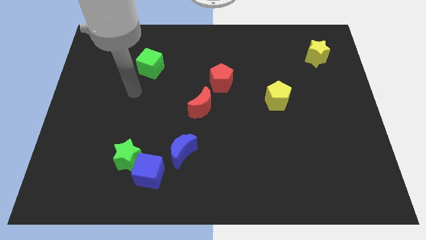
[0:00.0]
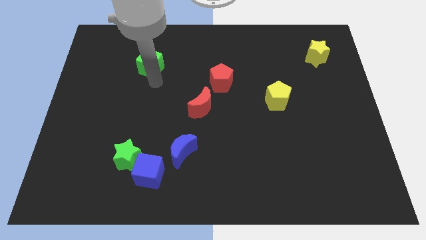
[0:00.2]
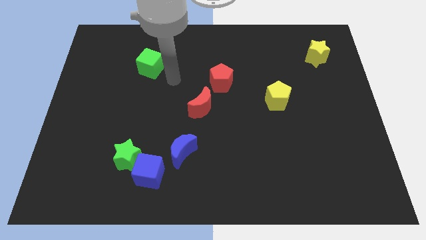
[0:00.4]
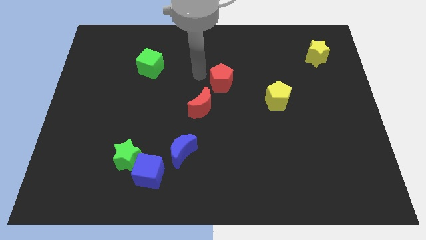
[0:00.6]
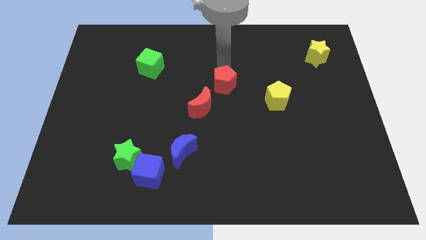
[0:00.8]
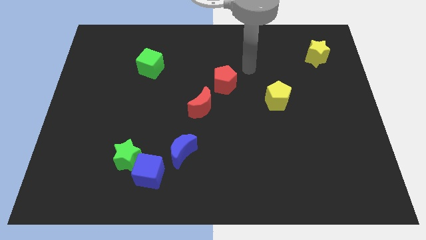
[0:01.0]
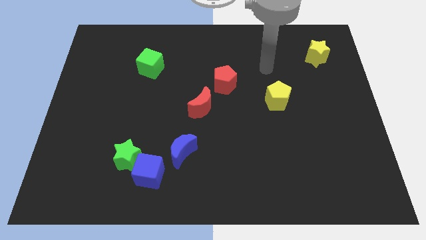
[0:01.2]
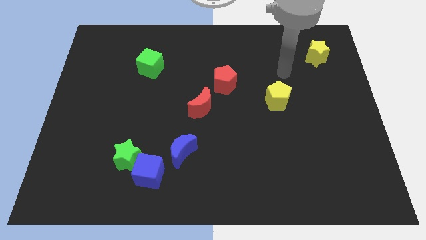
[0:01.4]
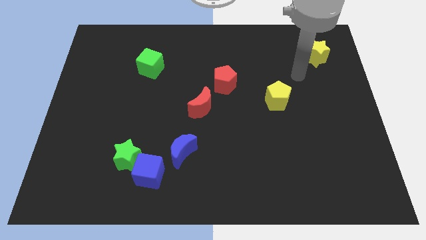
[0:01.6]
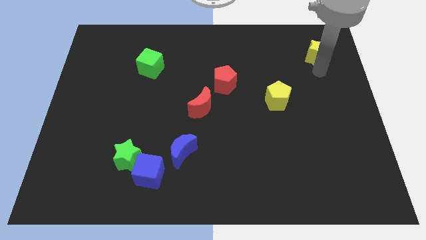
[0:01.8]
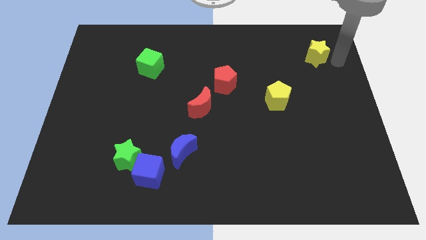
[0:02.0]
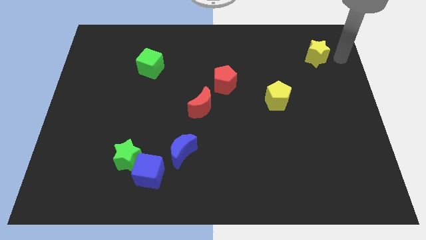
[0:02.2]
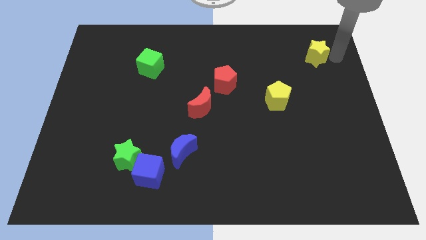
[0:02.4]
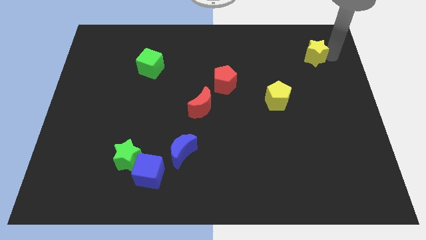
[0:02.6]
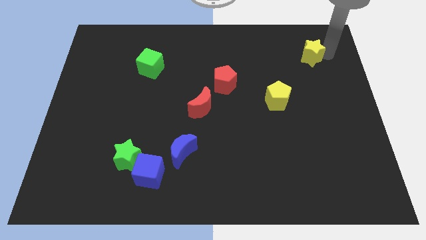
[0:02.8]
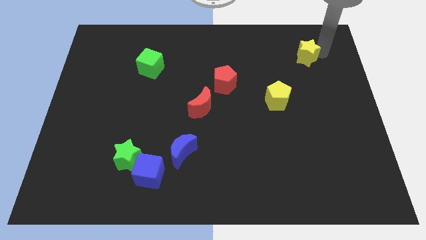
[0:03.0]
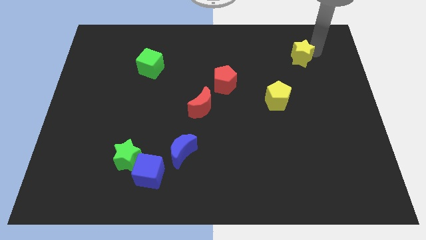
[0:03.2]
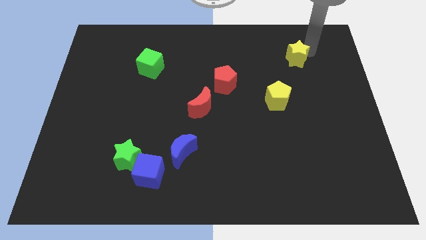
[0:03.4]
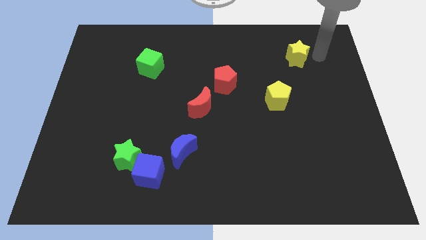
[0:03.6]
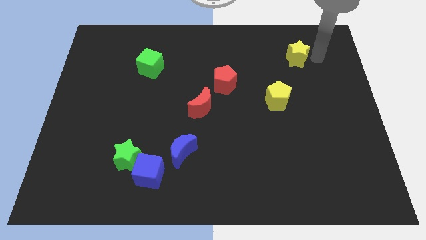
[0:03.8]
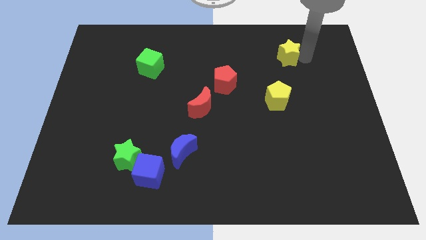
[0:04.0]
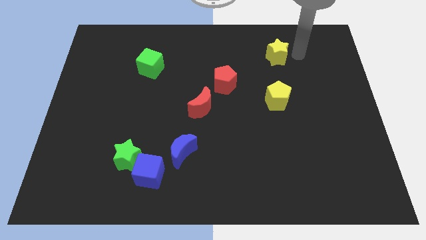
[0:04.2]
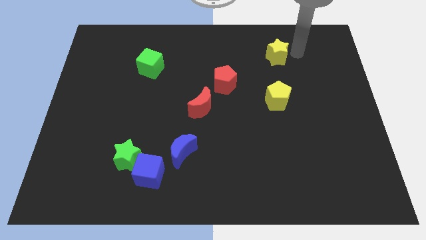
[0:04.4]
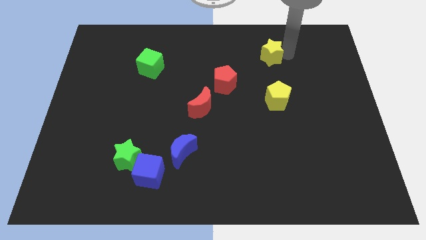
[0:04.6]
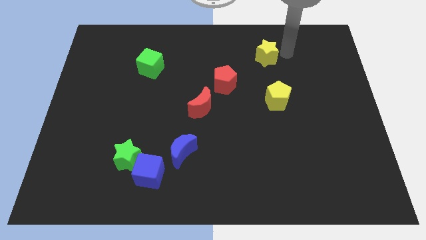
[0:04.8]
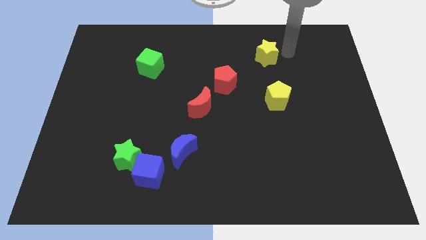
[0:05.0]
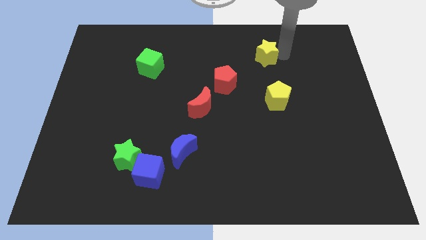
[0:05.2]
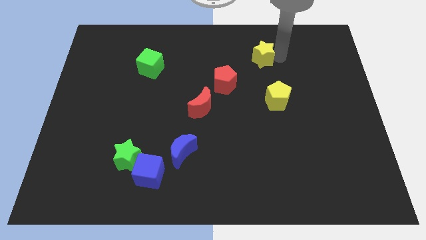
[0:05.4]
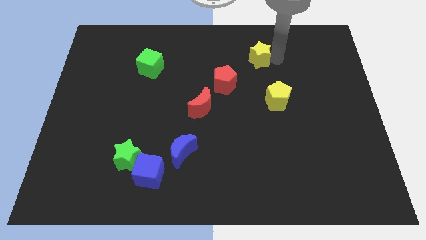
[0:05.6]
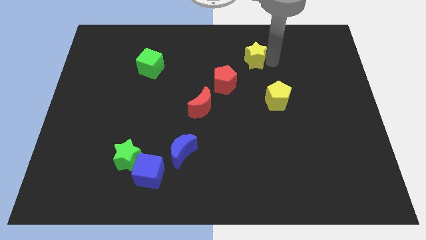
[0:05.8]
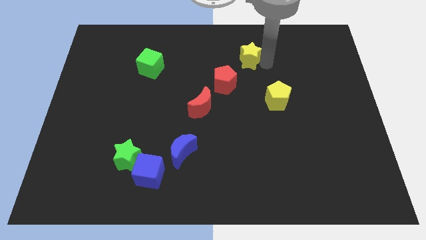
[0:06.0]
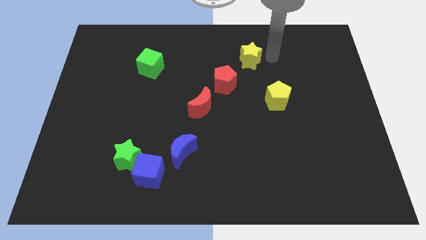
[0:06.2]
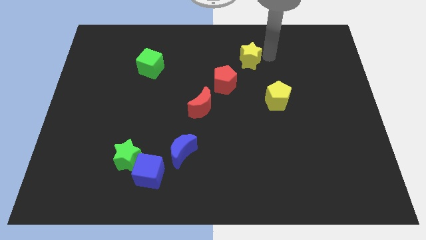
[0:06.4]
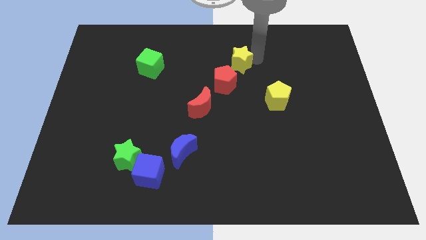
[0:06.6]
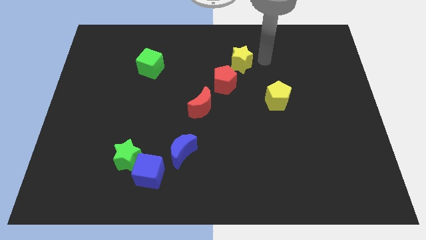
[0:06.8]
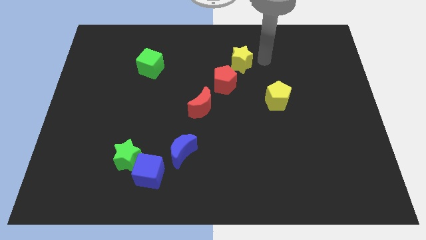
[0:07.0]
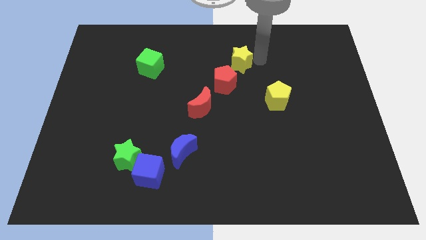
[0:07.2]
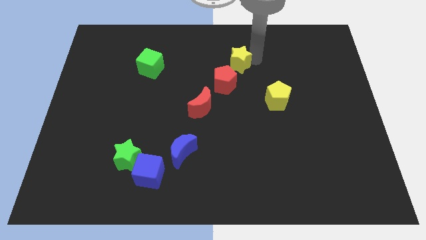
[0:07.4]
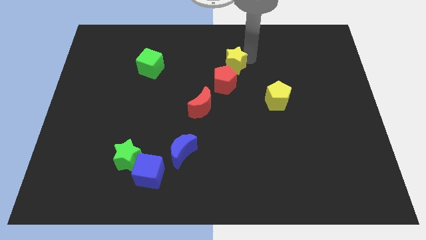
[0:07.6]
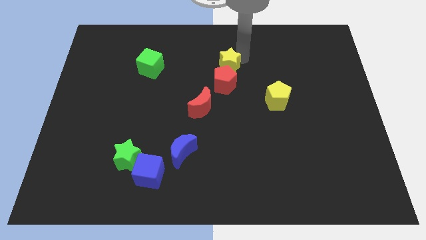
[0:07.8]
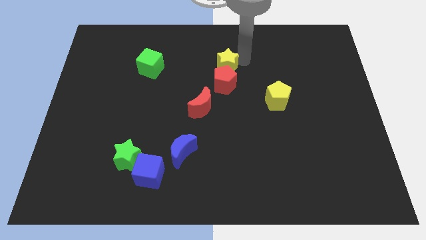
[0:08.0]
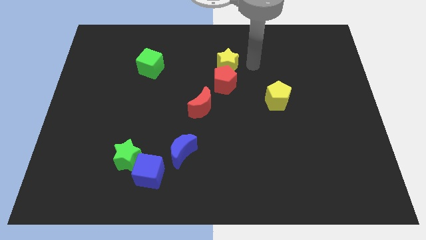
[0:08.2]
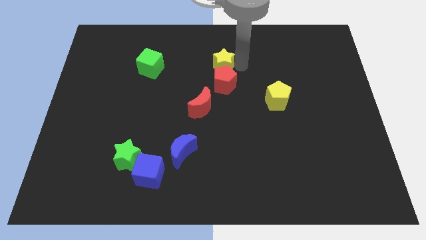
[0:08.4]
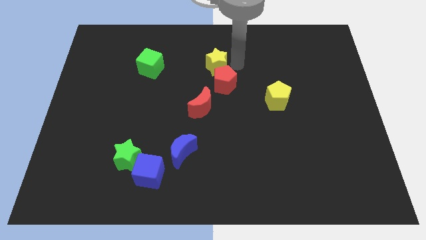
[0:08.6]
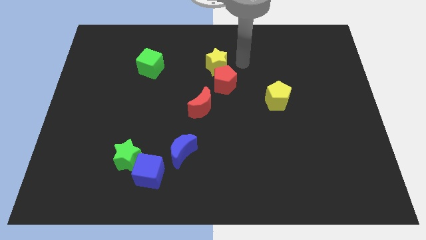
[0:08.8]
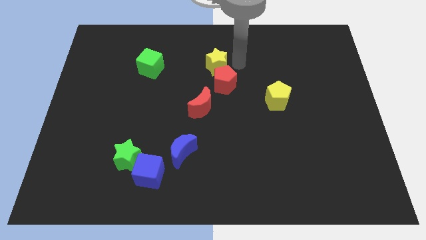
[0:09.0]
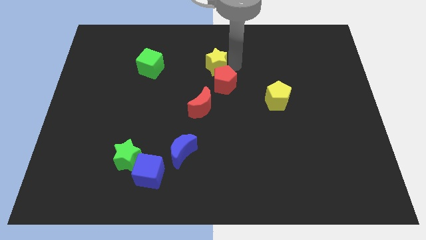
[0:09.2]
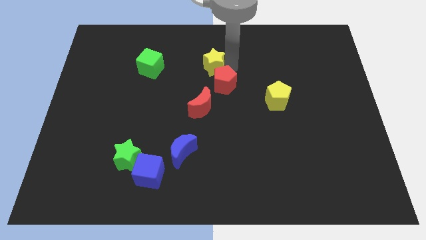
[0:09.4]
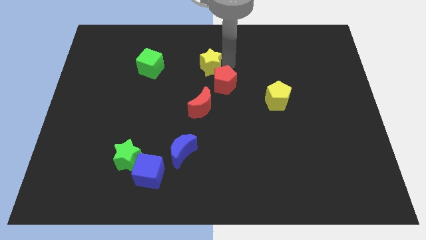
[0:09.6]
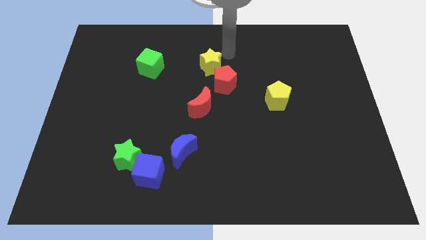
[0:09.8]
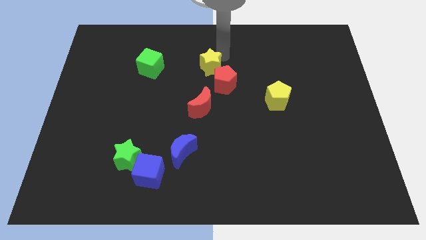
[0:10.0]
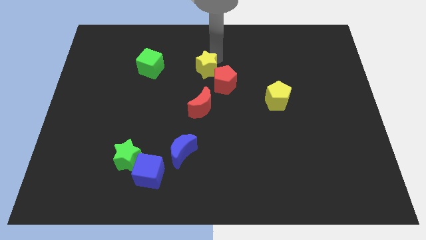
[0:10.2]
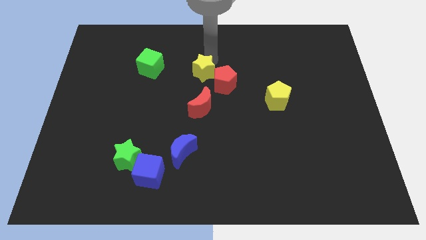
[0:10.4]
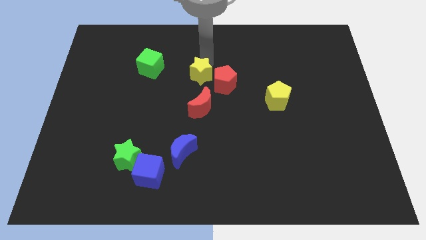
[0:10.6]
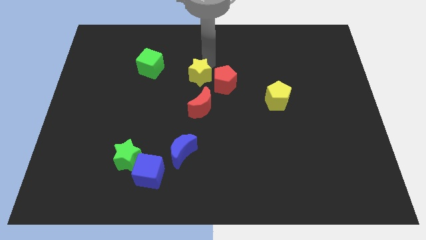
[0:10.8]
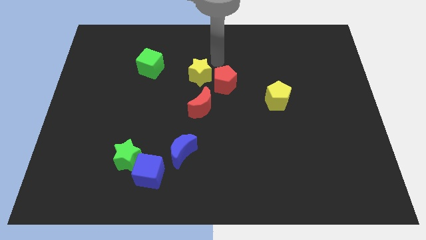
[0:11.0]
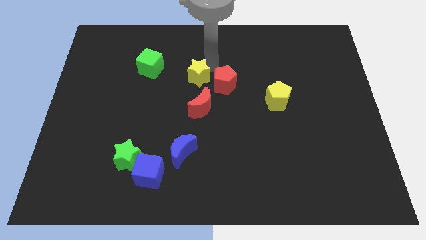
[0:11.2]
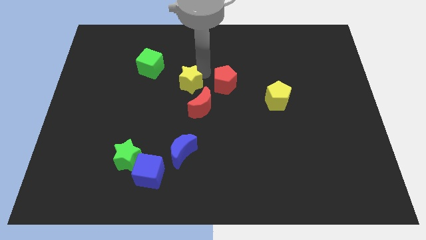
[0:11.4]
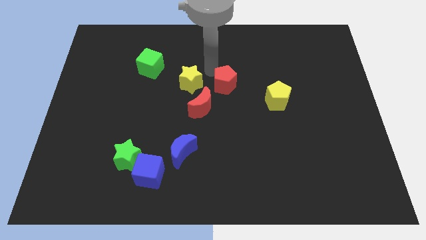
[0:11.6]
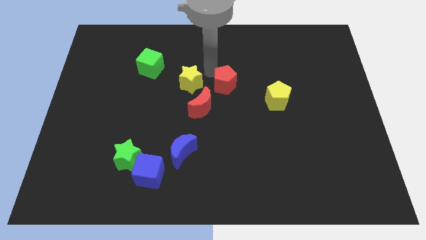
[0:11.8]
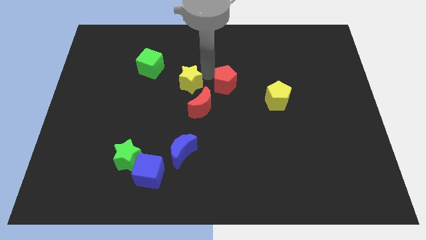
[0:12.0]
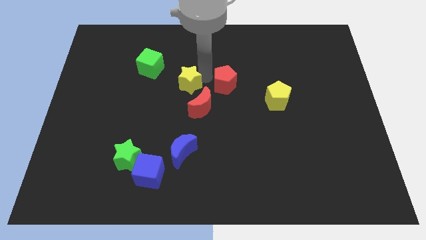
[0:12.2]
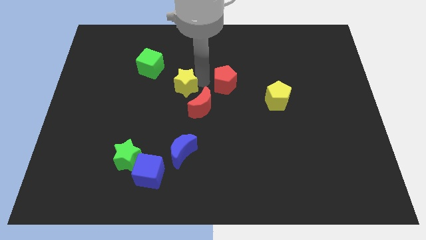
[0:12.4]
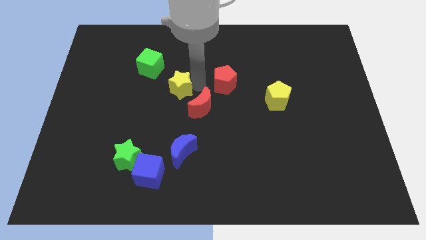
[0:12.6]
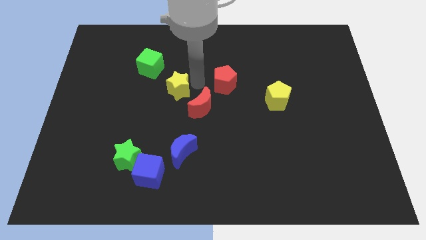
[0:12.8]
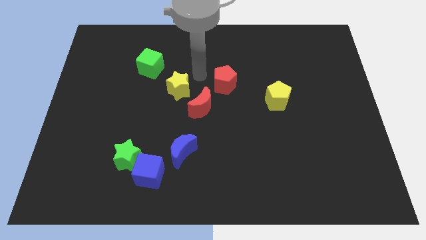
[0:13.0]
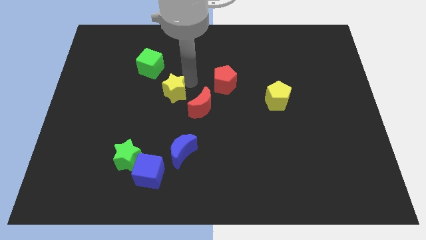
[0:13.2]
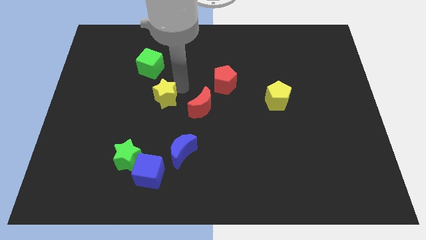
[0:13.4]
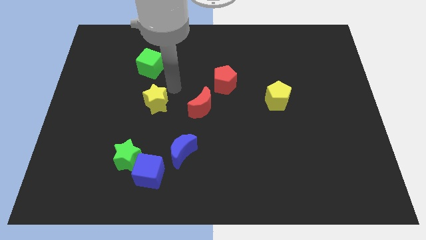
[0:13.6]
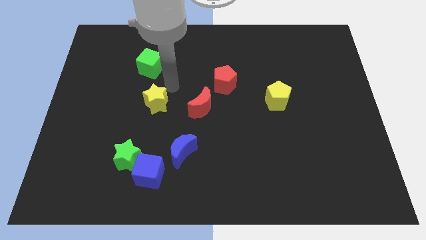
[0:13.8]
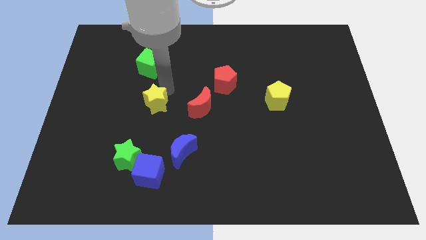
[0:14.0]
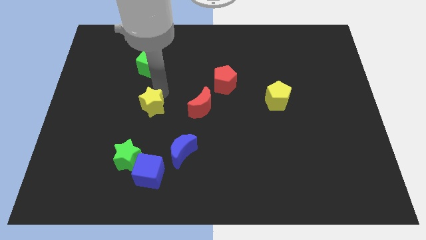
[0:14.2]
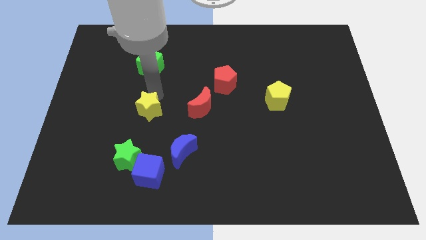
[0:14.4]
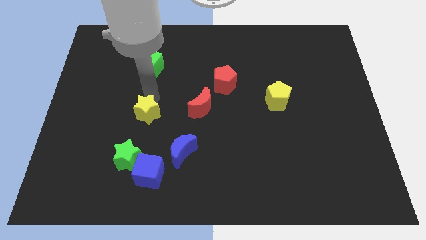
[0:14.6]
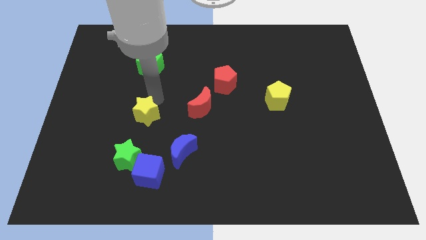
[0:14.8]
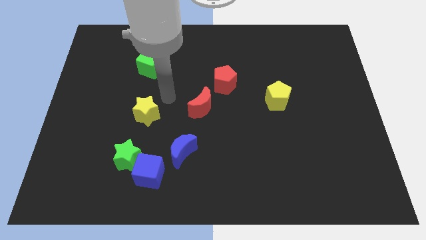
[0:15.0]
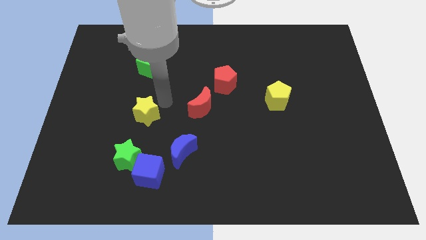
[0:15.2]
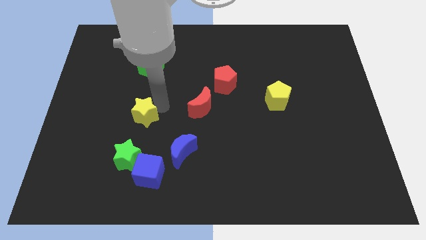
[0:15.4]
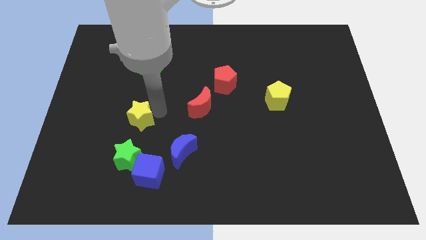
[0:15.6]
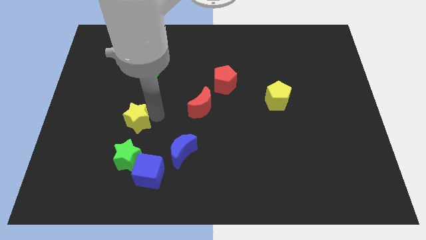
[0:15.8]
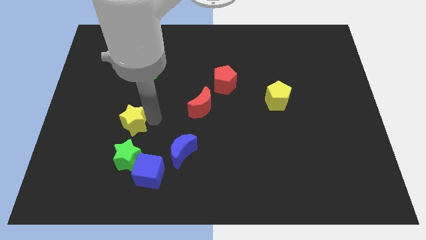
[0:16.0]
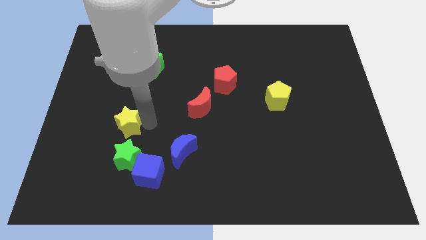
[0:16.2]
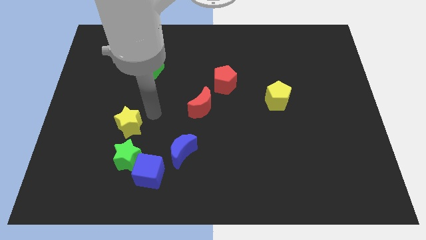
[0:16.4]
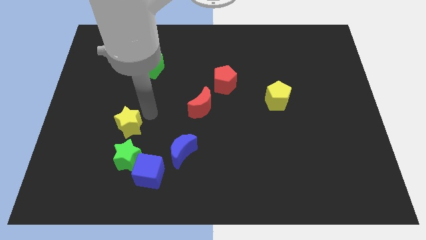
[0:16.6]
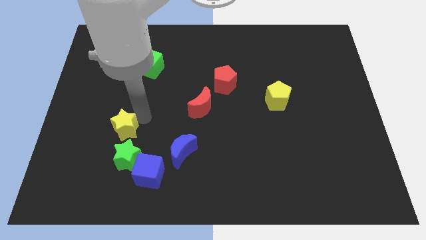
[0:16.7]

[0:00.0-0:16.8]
move the yellow star to the top left of the green star
